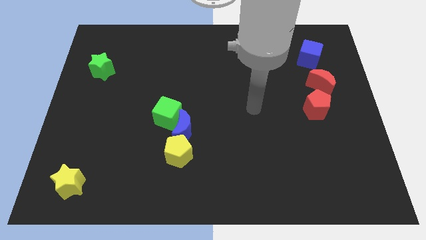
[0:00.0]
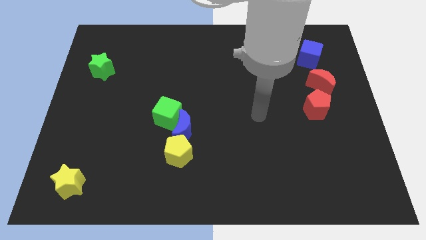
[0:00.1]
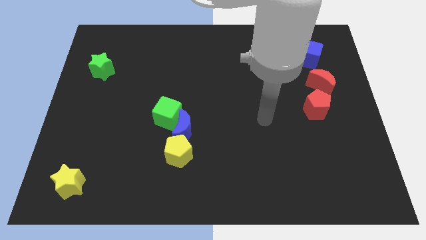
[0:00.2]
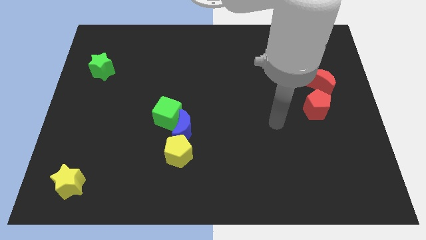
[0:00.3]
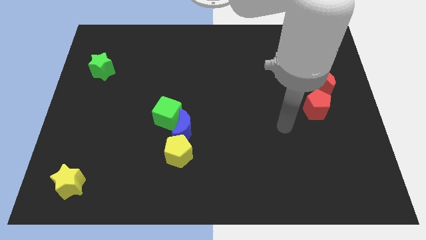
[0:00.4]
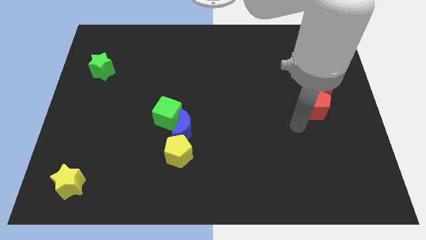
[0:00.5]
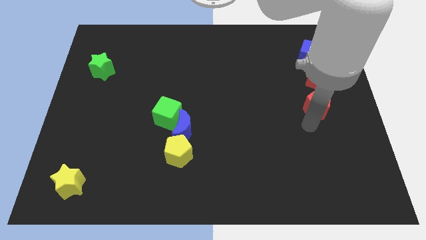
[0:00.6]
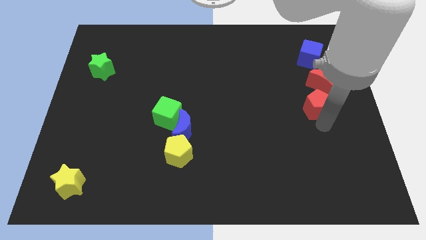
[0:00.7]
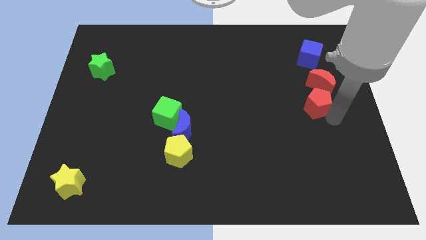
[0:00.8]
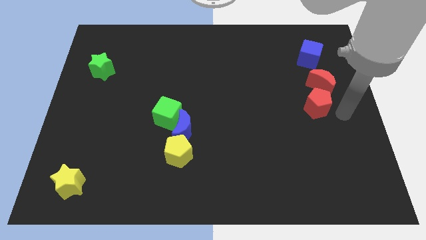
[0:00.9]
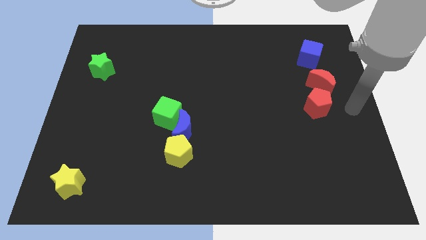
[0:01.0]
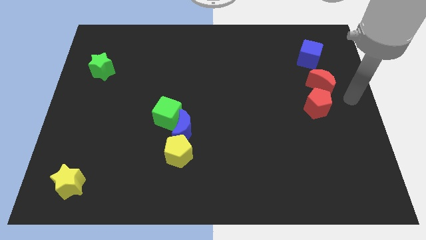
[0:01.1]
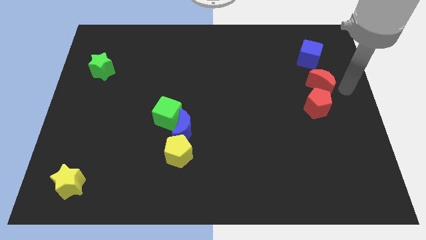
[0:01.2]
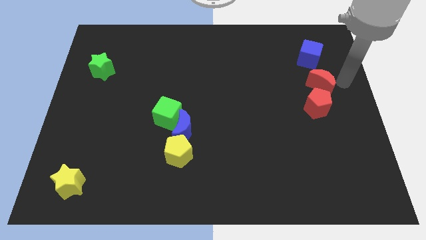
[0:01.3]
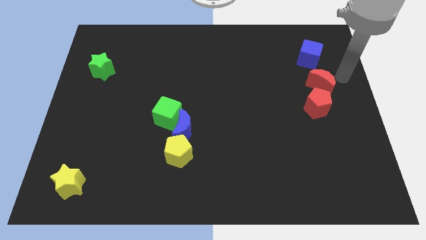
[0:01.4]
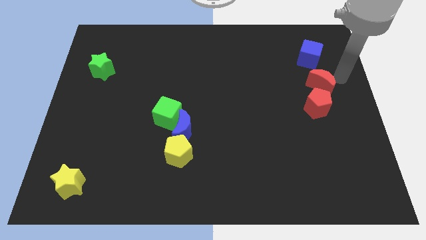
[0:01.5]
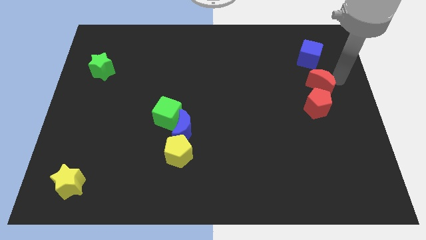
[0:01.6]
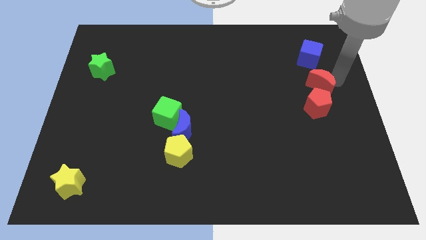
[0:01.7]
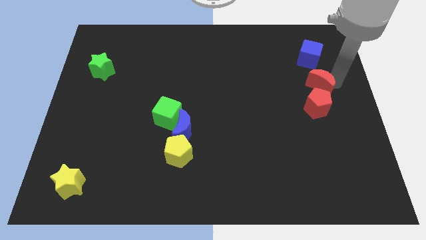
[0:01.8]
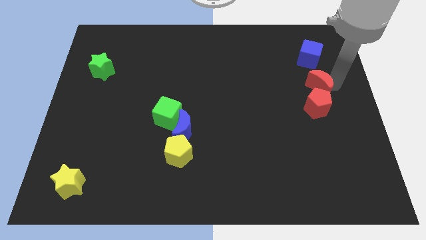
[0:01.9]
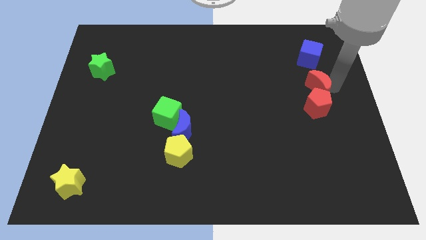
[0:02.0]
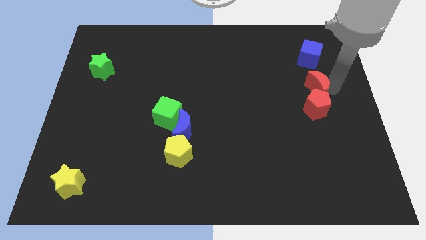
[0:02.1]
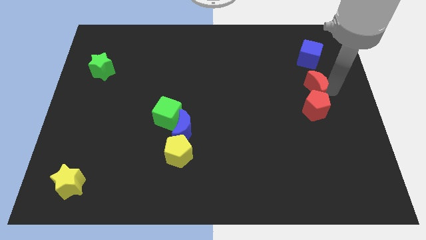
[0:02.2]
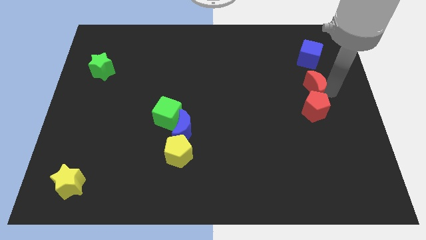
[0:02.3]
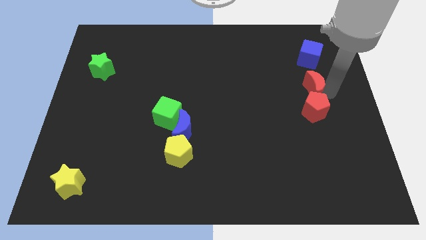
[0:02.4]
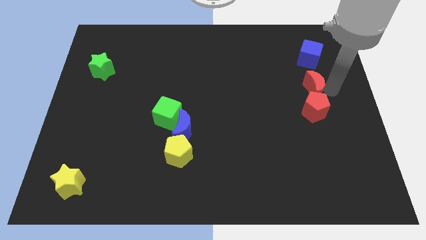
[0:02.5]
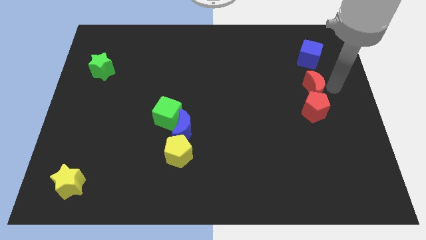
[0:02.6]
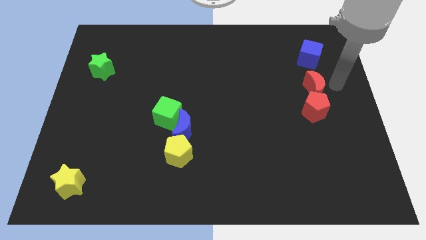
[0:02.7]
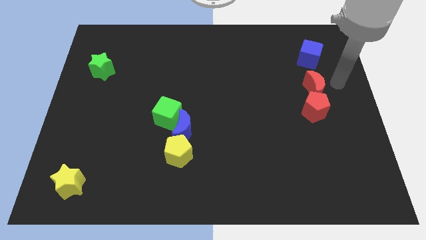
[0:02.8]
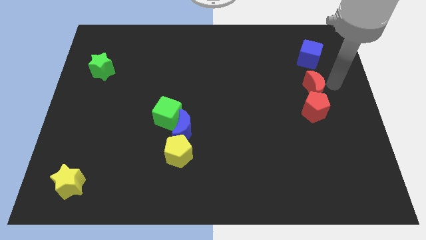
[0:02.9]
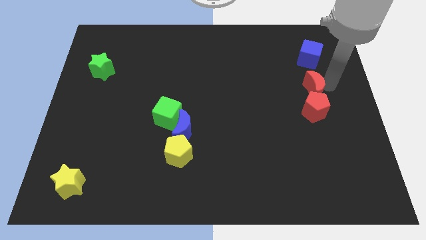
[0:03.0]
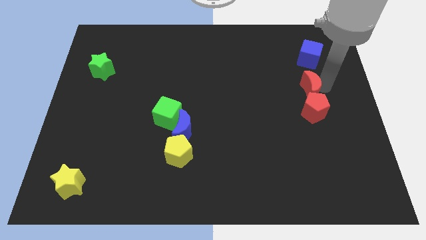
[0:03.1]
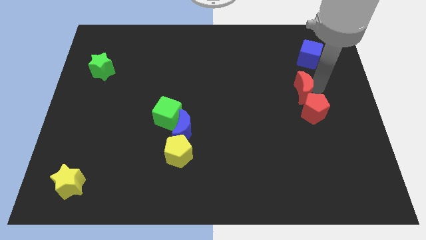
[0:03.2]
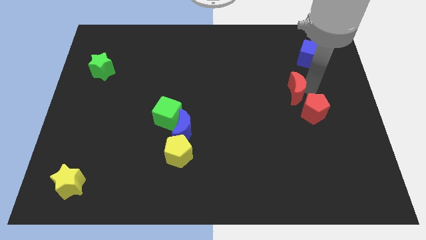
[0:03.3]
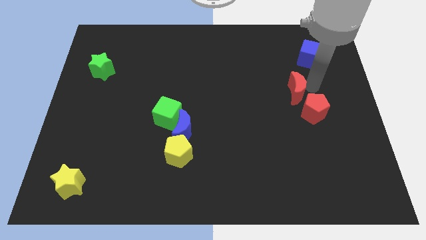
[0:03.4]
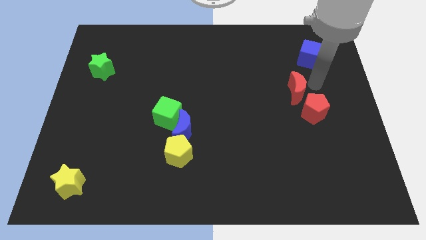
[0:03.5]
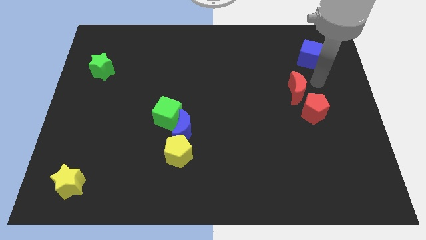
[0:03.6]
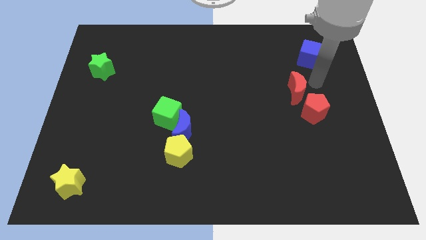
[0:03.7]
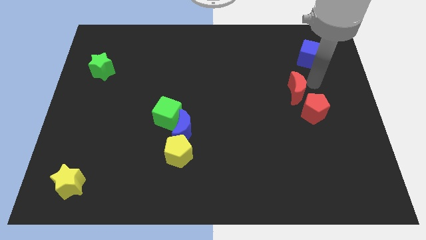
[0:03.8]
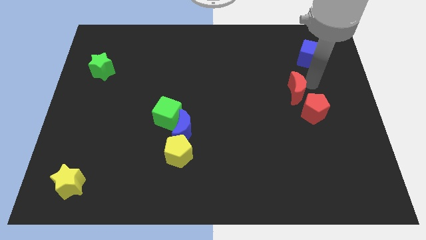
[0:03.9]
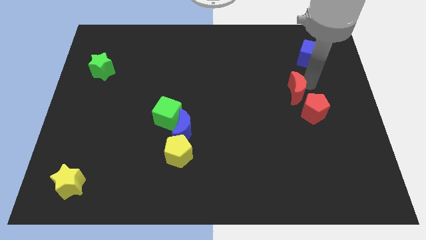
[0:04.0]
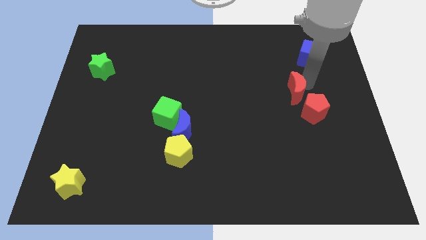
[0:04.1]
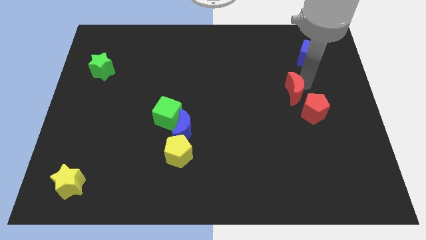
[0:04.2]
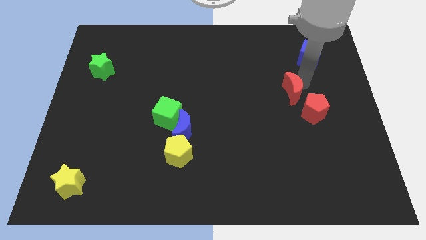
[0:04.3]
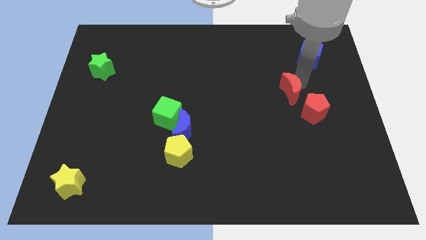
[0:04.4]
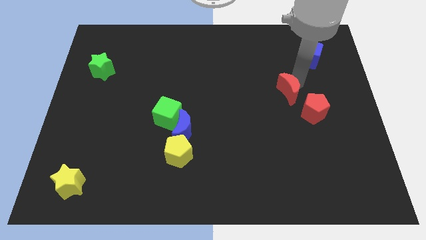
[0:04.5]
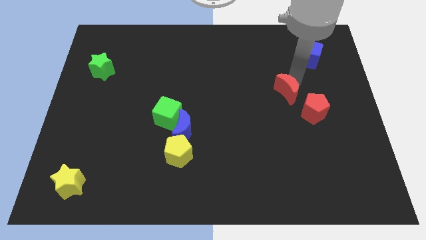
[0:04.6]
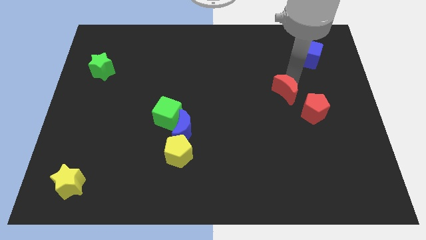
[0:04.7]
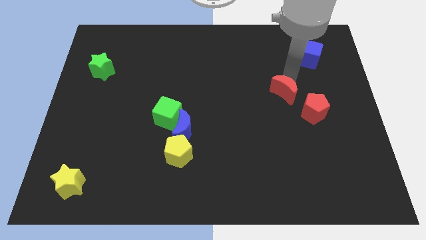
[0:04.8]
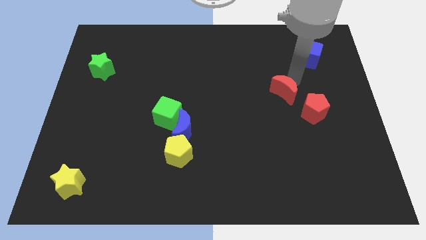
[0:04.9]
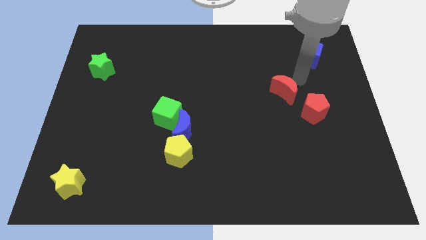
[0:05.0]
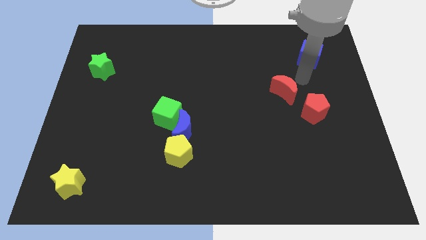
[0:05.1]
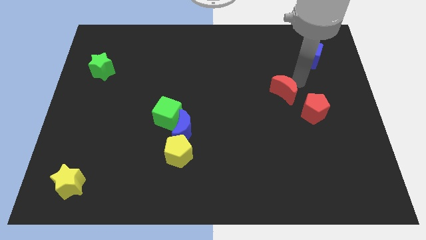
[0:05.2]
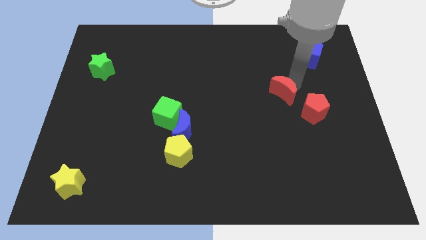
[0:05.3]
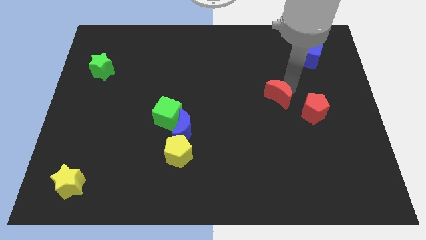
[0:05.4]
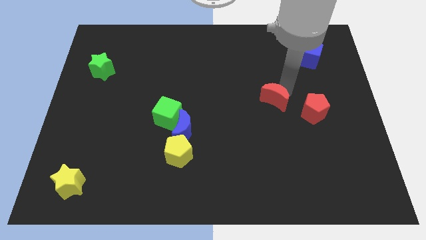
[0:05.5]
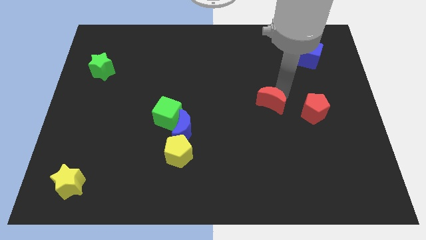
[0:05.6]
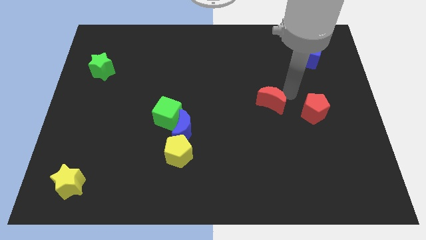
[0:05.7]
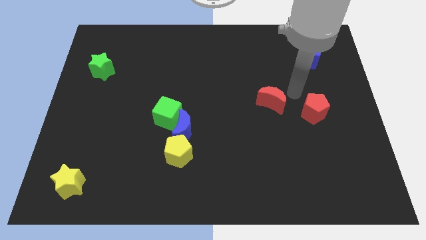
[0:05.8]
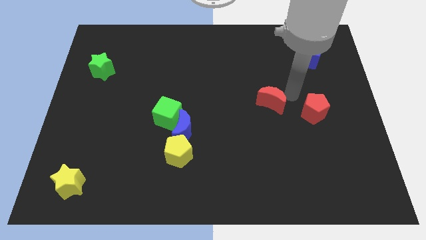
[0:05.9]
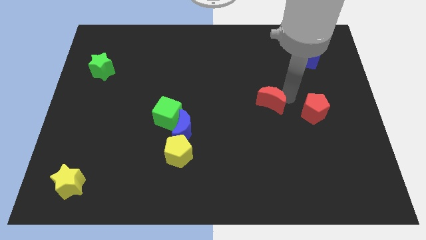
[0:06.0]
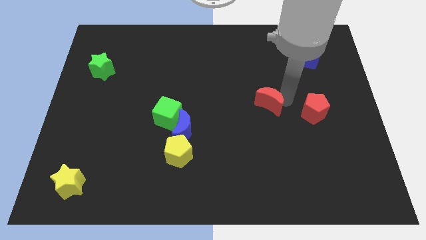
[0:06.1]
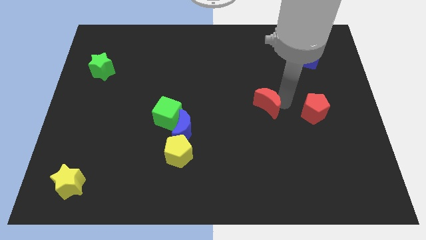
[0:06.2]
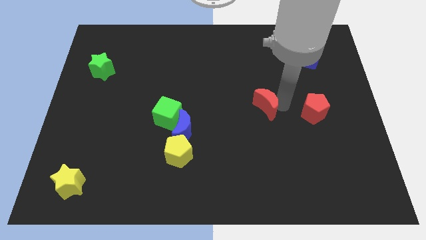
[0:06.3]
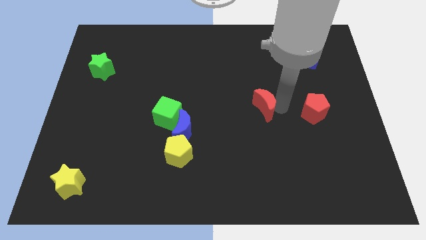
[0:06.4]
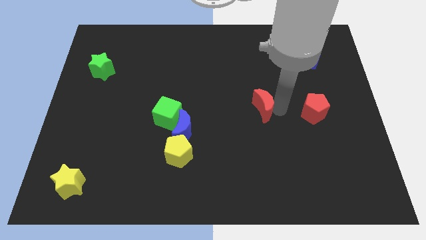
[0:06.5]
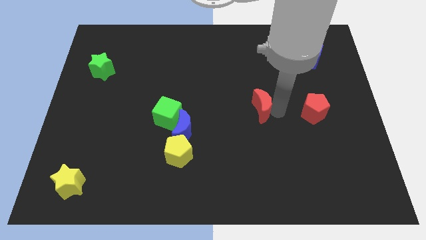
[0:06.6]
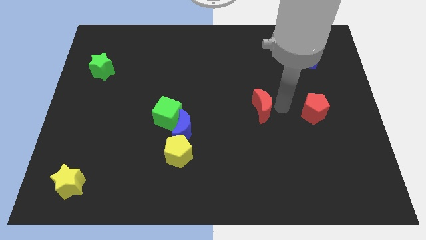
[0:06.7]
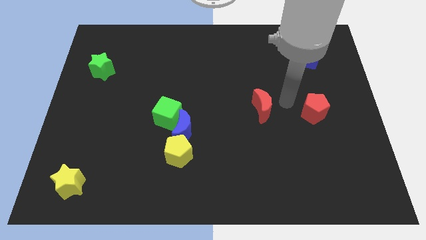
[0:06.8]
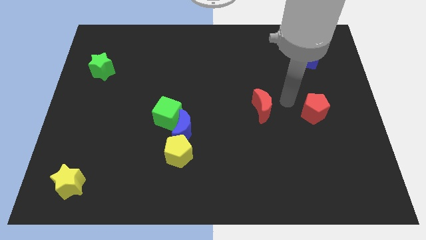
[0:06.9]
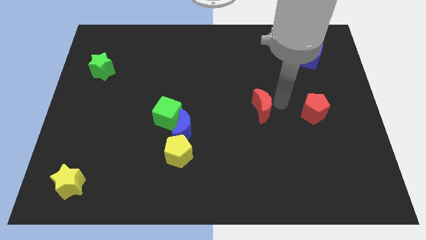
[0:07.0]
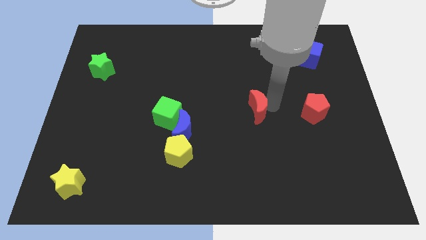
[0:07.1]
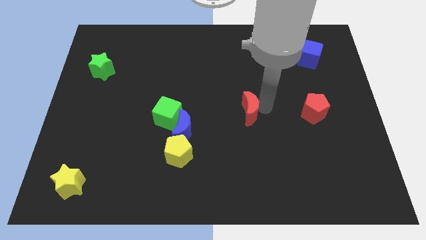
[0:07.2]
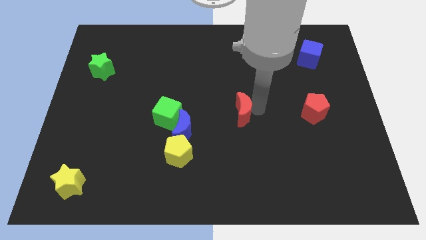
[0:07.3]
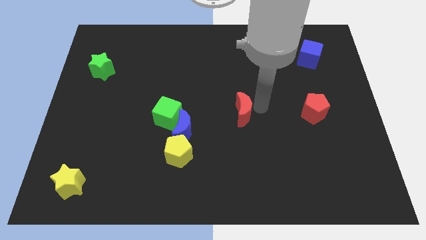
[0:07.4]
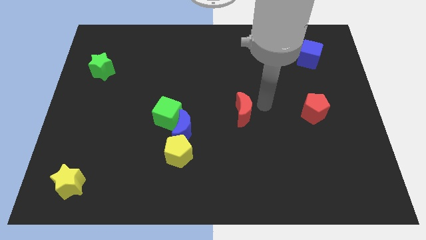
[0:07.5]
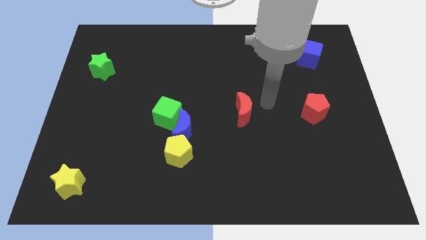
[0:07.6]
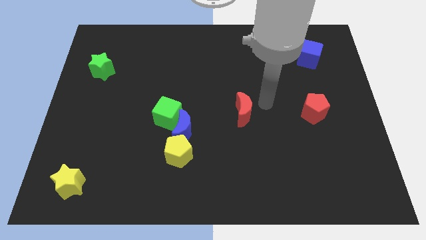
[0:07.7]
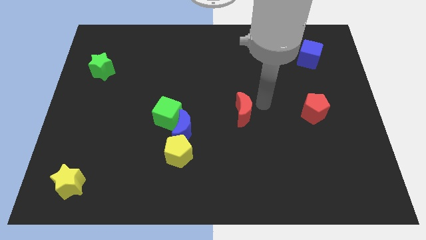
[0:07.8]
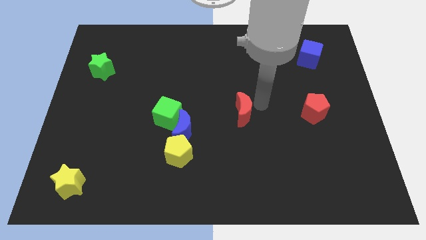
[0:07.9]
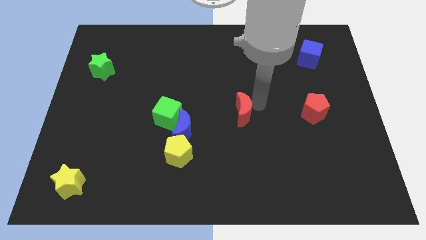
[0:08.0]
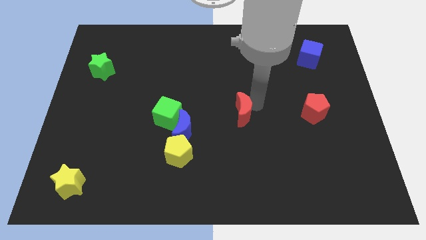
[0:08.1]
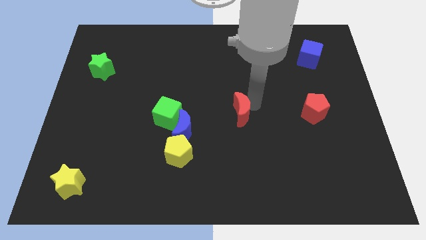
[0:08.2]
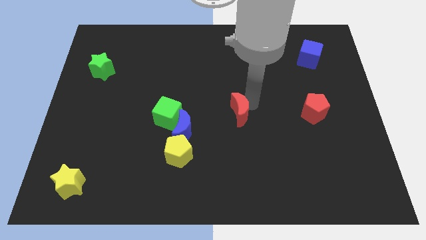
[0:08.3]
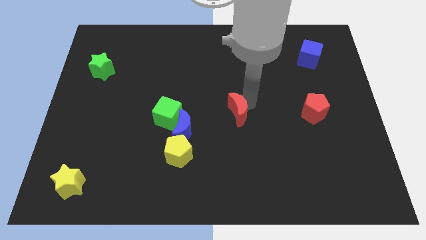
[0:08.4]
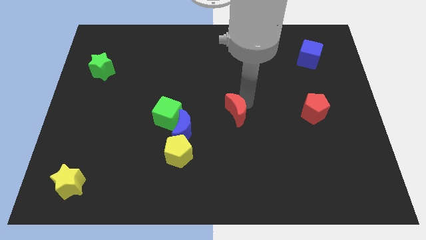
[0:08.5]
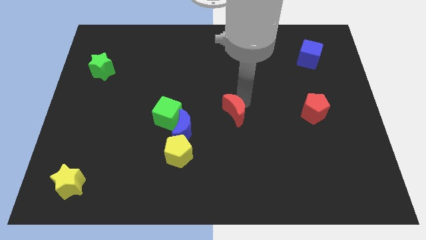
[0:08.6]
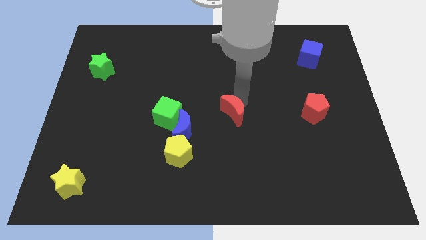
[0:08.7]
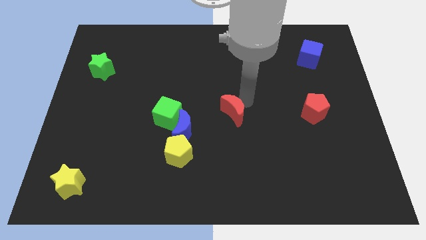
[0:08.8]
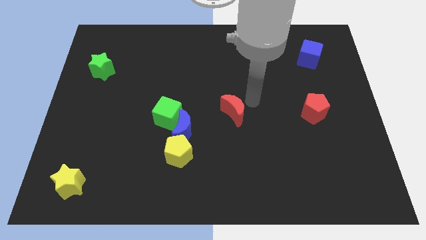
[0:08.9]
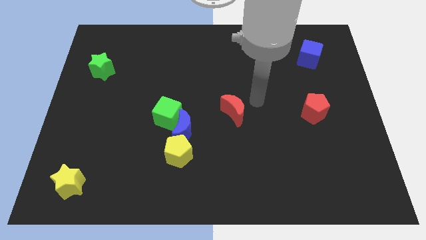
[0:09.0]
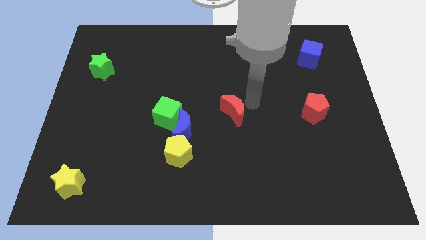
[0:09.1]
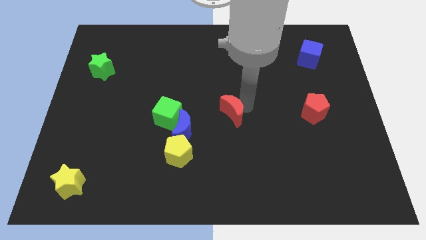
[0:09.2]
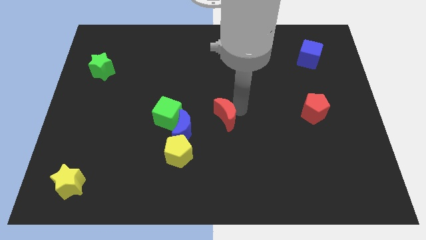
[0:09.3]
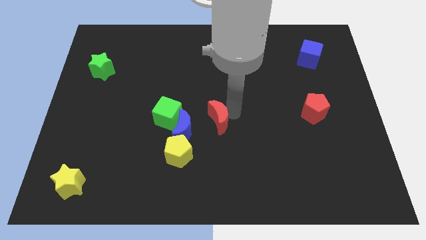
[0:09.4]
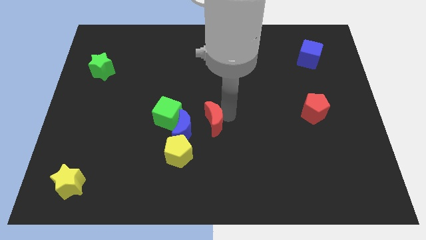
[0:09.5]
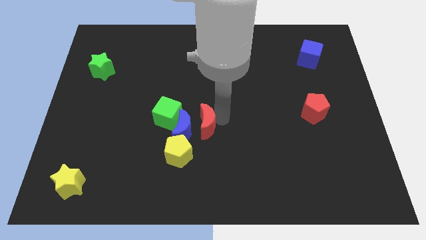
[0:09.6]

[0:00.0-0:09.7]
slide the red moon to the blue moon
